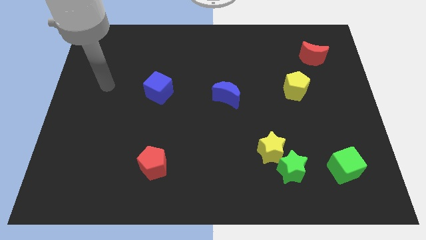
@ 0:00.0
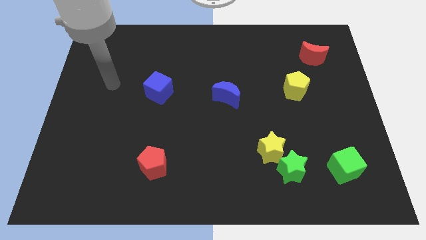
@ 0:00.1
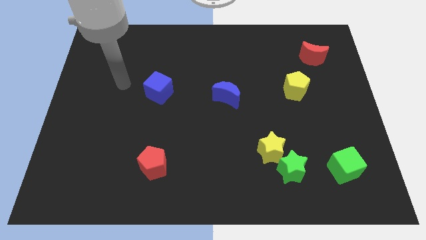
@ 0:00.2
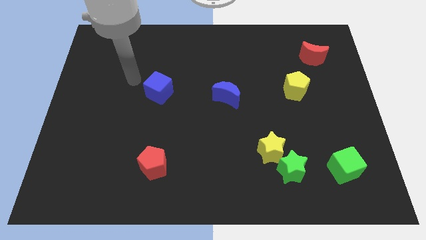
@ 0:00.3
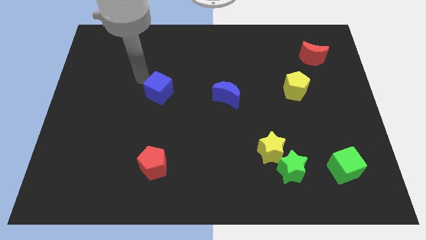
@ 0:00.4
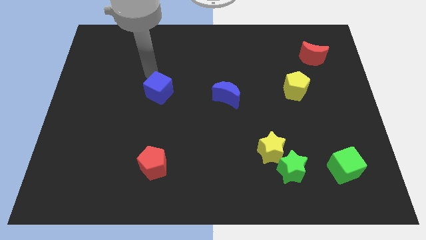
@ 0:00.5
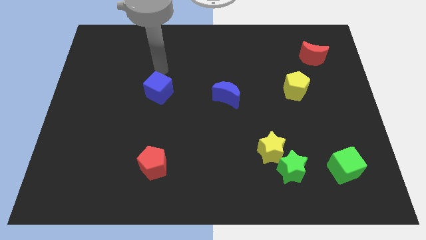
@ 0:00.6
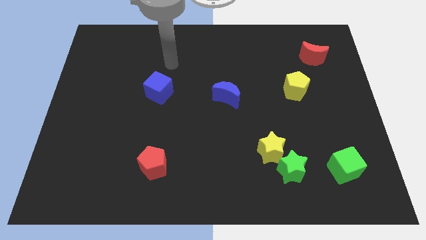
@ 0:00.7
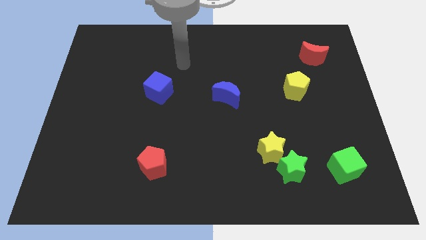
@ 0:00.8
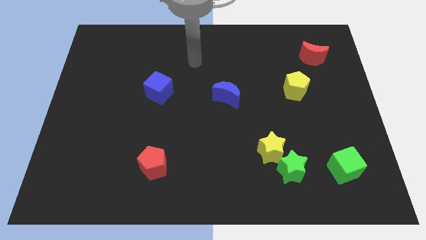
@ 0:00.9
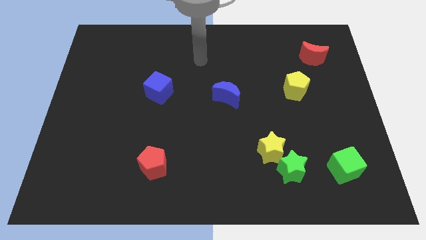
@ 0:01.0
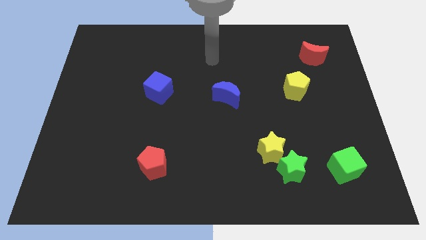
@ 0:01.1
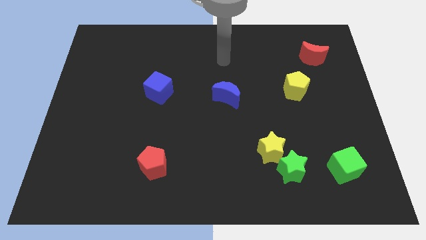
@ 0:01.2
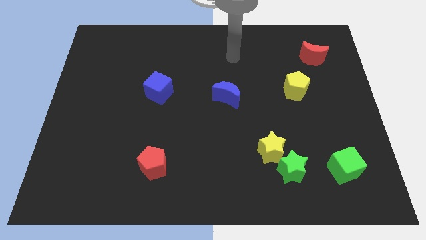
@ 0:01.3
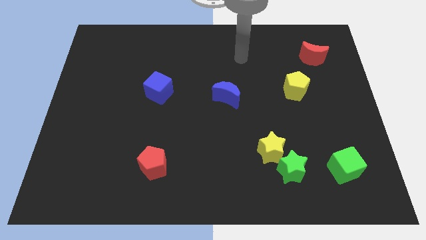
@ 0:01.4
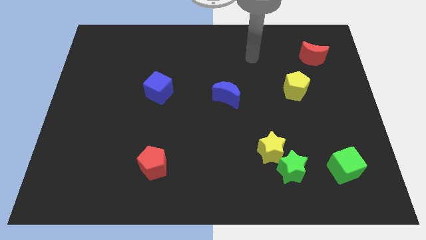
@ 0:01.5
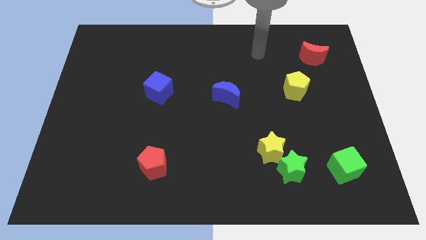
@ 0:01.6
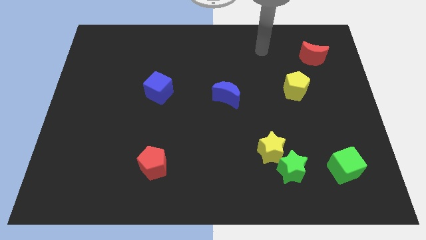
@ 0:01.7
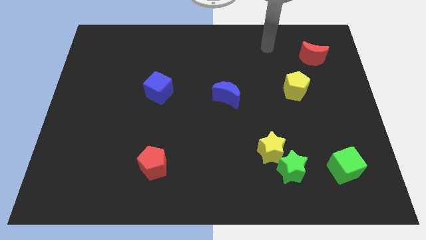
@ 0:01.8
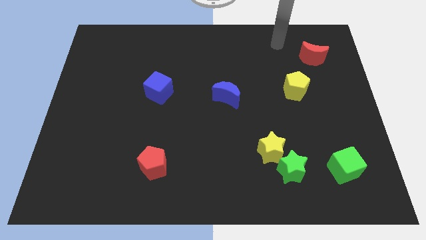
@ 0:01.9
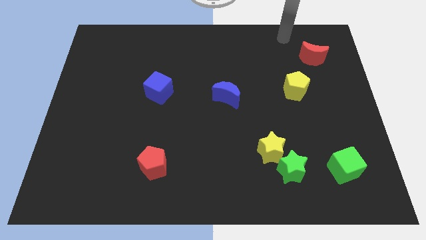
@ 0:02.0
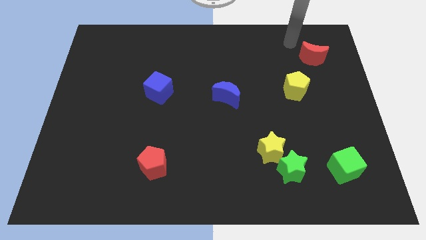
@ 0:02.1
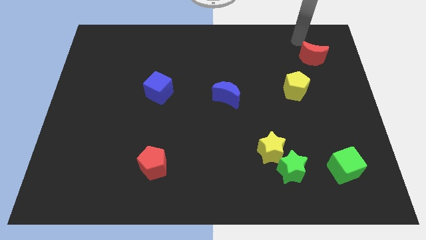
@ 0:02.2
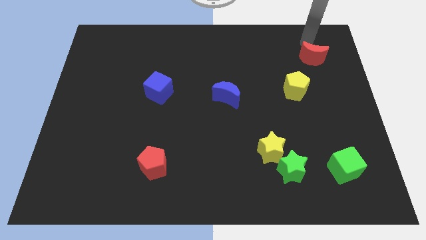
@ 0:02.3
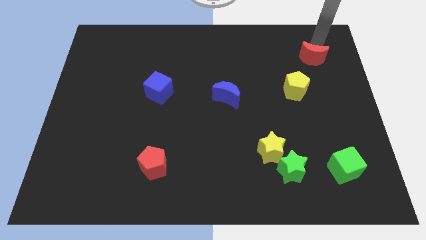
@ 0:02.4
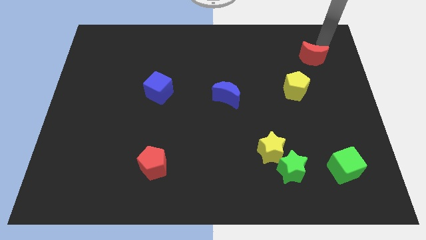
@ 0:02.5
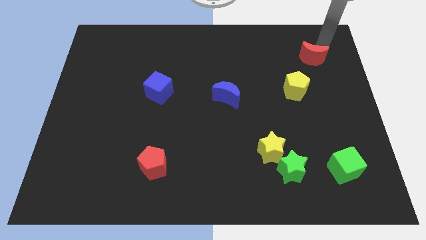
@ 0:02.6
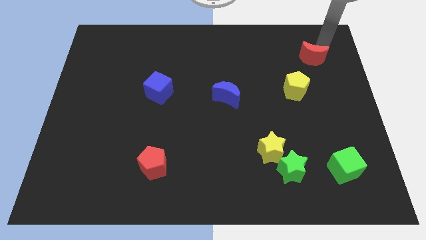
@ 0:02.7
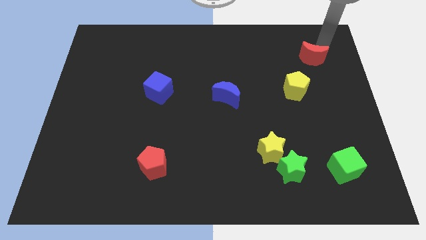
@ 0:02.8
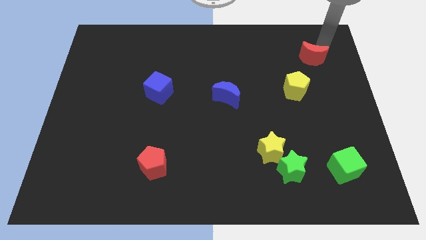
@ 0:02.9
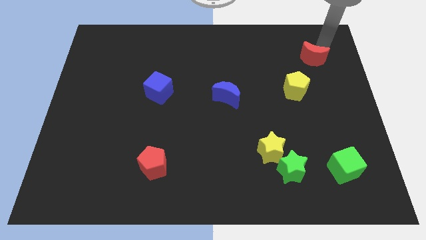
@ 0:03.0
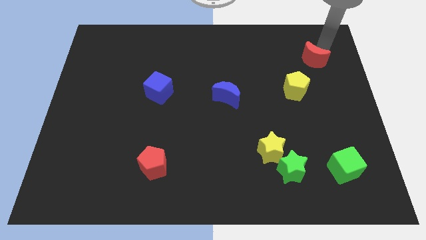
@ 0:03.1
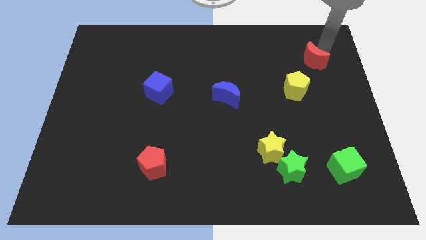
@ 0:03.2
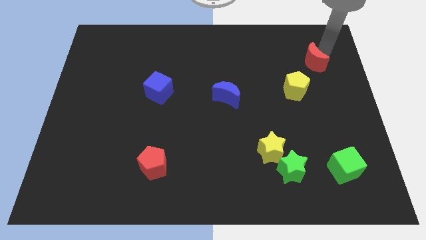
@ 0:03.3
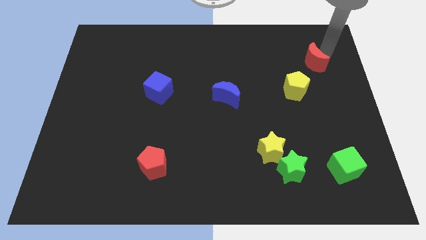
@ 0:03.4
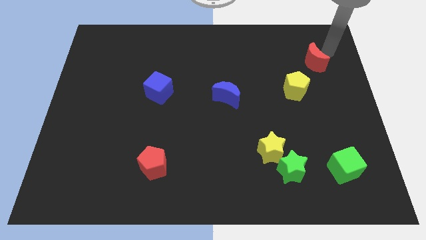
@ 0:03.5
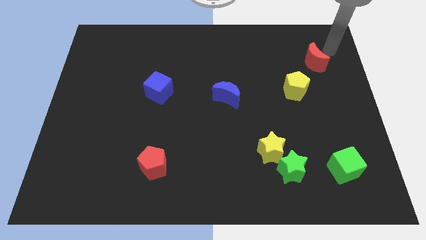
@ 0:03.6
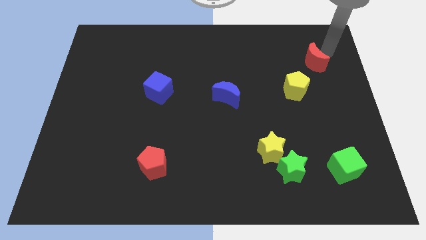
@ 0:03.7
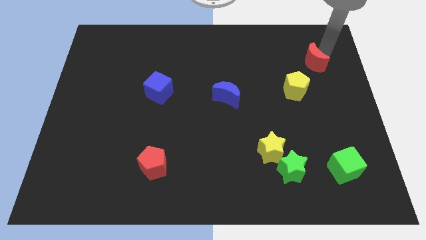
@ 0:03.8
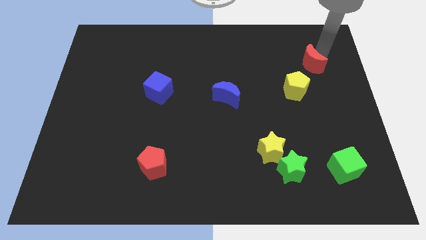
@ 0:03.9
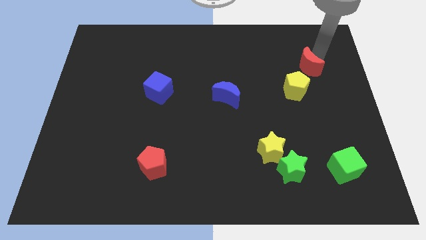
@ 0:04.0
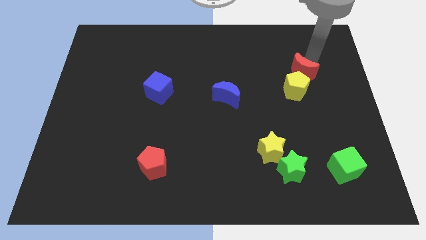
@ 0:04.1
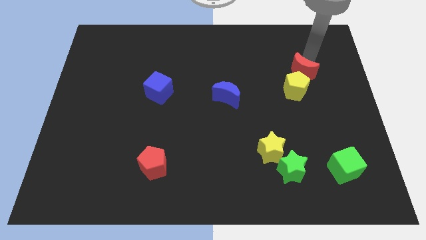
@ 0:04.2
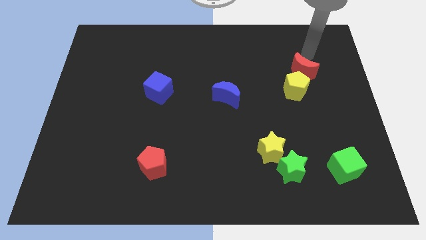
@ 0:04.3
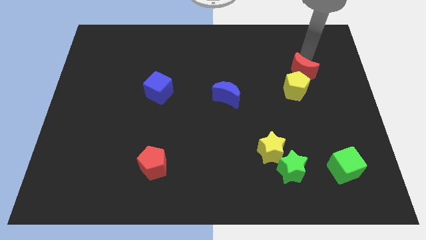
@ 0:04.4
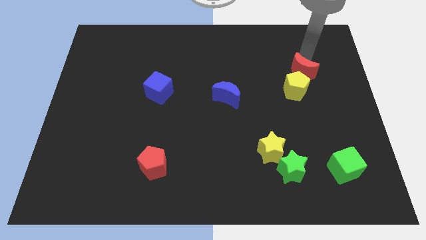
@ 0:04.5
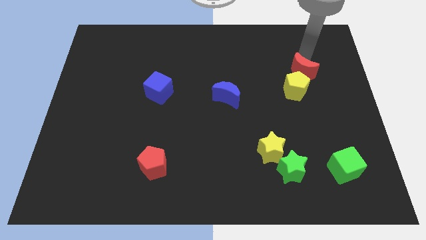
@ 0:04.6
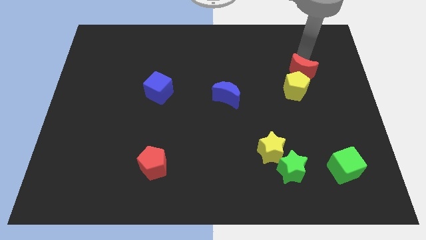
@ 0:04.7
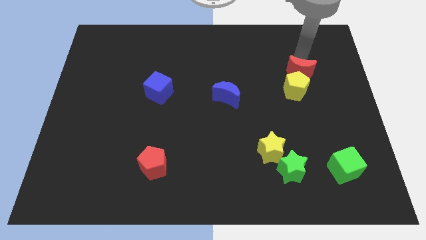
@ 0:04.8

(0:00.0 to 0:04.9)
move the red moon towards the yellow pentagon

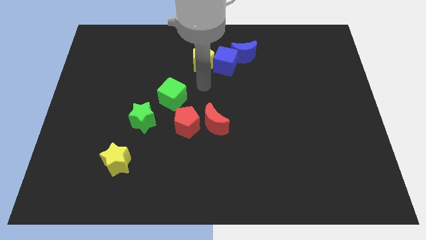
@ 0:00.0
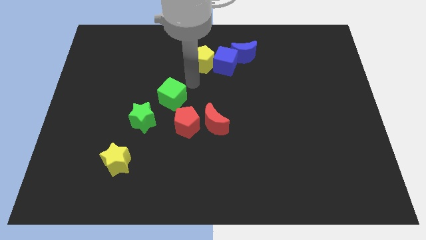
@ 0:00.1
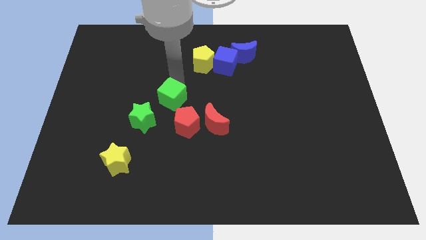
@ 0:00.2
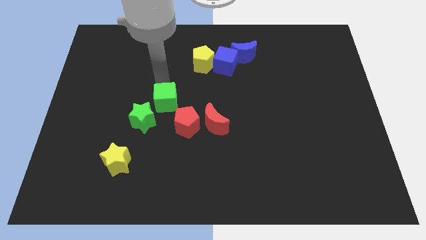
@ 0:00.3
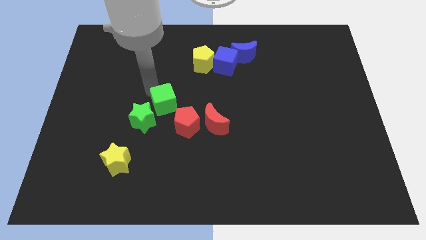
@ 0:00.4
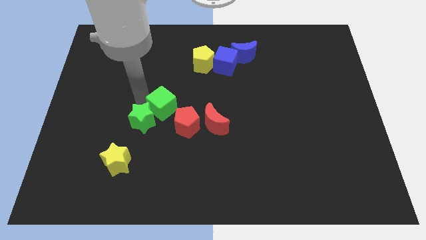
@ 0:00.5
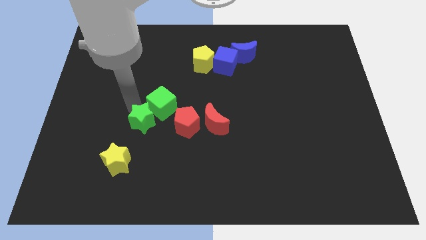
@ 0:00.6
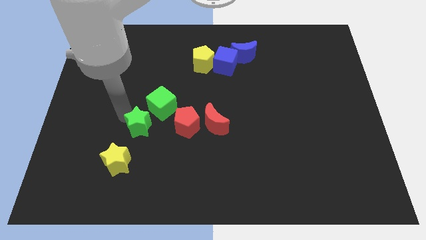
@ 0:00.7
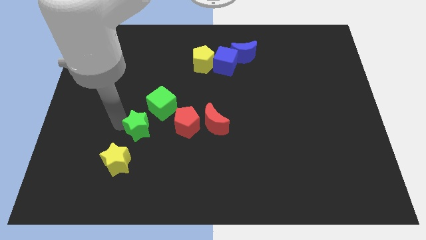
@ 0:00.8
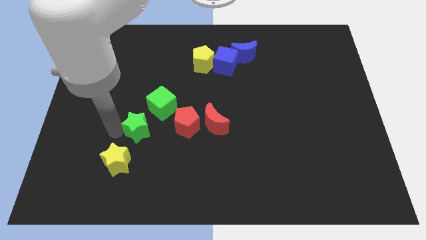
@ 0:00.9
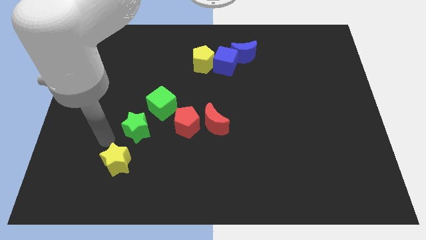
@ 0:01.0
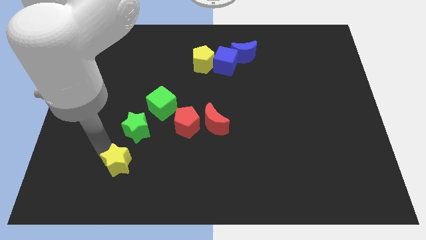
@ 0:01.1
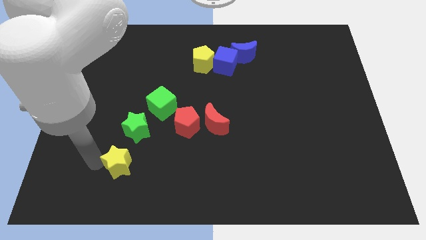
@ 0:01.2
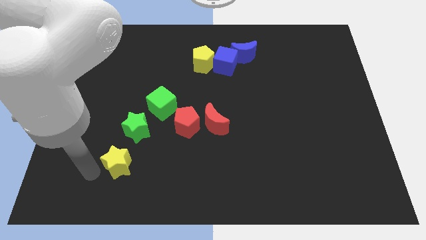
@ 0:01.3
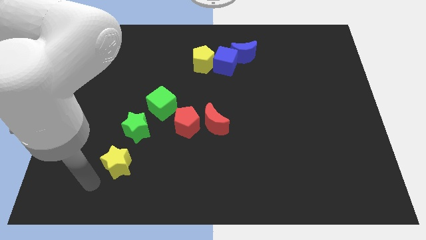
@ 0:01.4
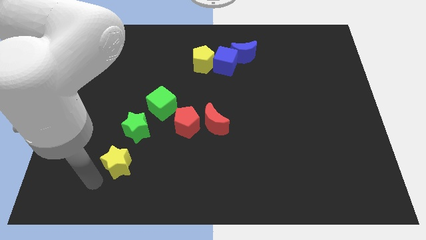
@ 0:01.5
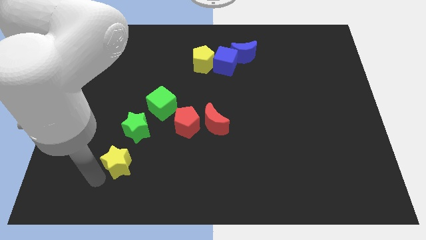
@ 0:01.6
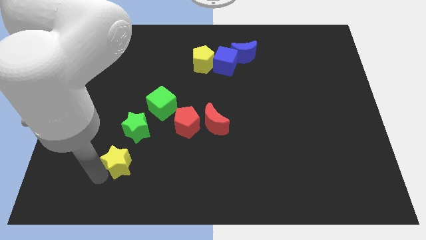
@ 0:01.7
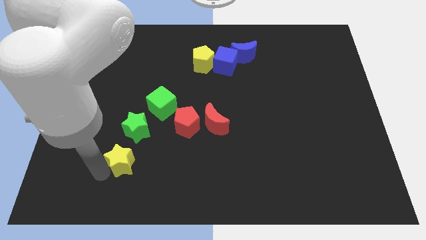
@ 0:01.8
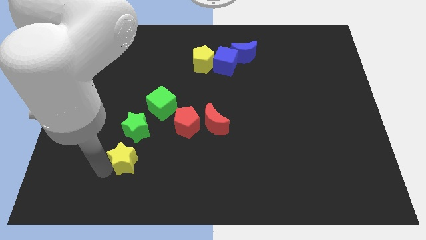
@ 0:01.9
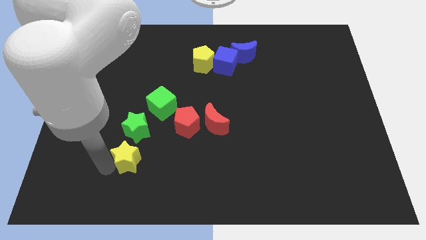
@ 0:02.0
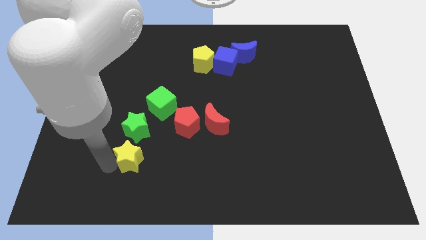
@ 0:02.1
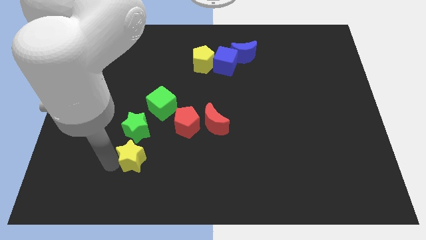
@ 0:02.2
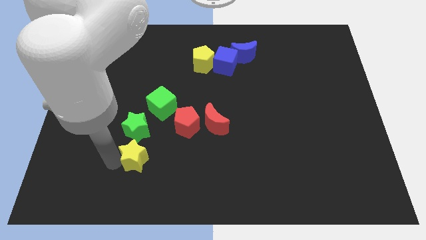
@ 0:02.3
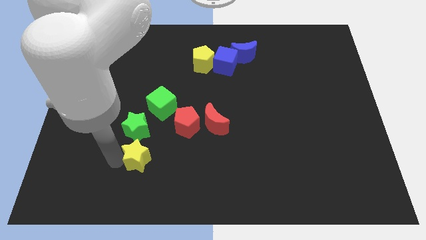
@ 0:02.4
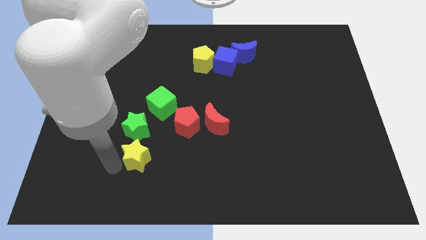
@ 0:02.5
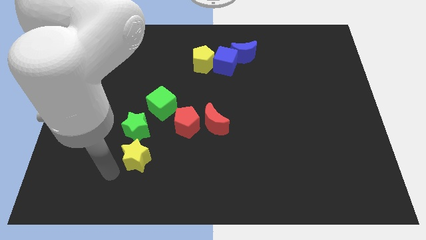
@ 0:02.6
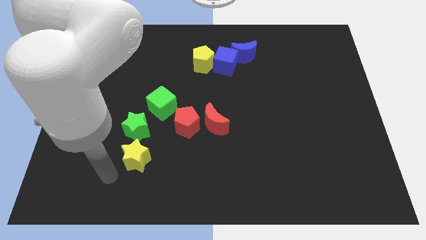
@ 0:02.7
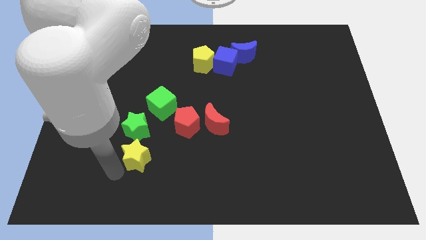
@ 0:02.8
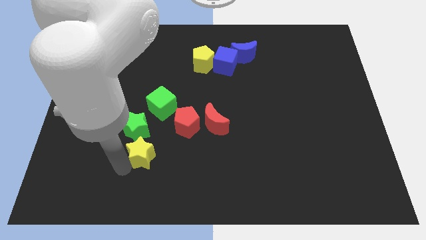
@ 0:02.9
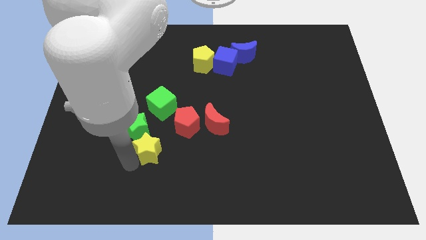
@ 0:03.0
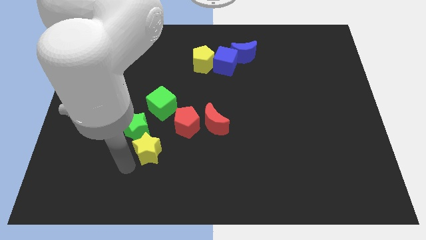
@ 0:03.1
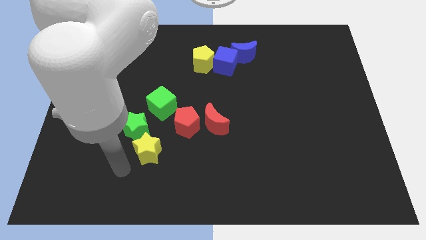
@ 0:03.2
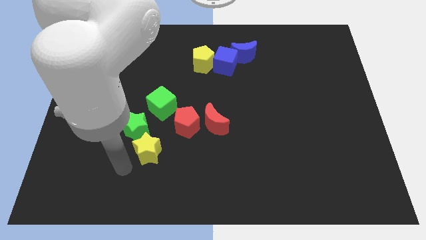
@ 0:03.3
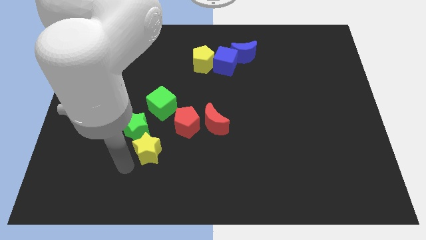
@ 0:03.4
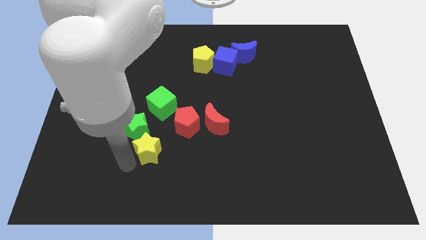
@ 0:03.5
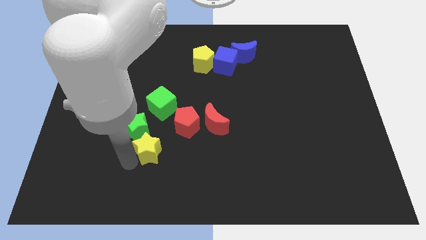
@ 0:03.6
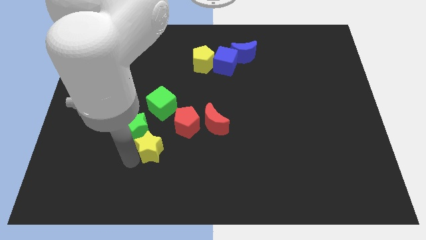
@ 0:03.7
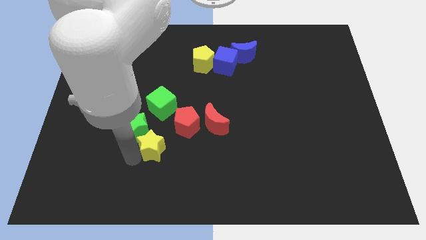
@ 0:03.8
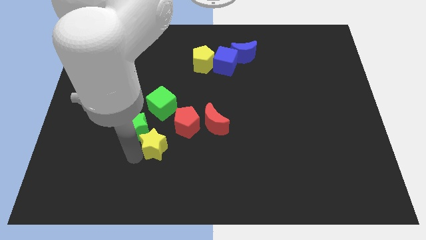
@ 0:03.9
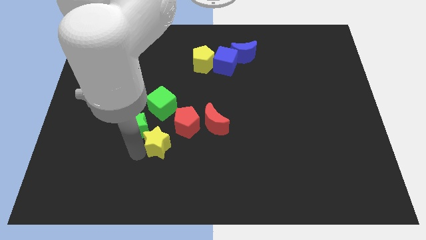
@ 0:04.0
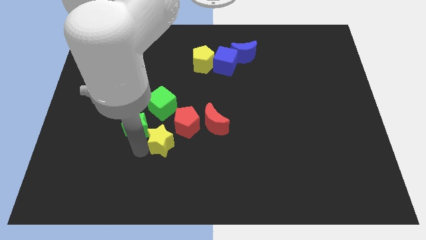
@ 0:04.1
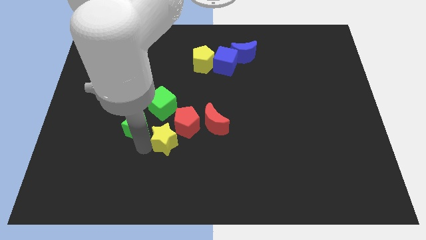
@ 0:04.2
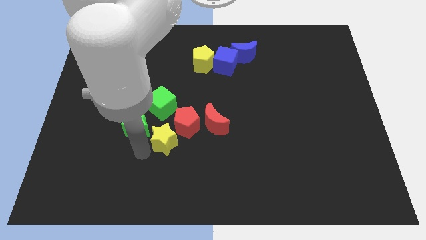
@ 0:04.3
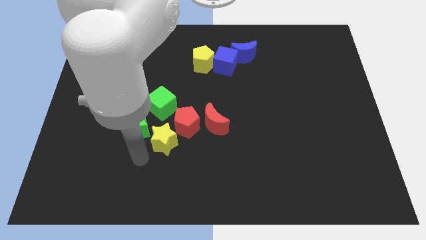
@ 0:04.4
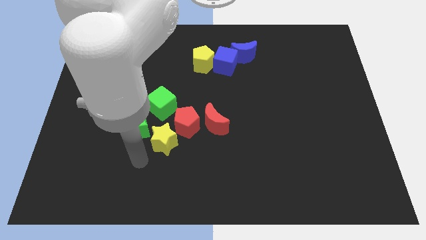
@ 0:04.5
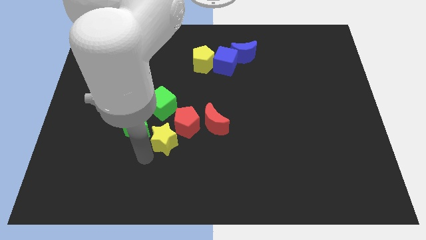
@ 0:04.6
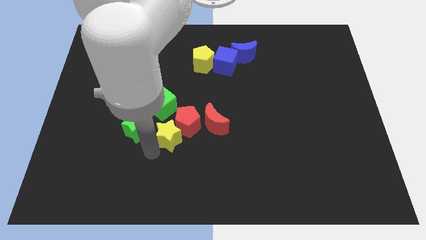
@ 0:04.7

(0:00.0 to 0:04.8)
push the yellow star to the red pentagon
